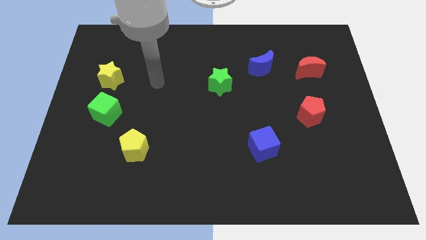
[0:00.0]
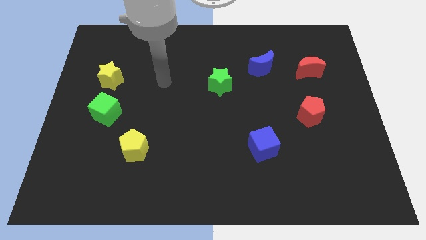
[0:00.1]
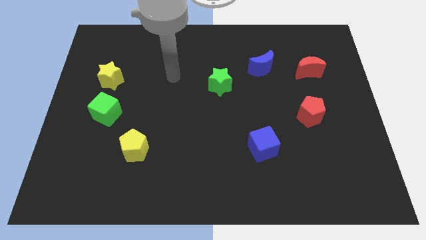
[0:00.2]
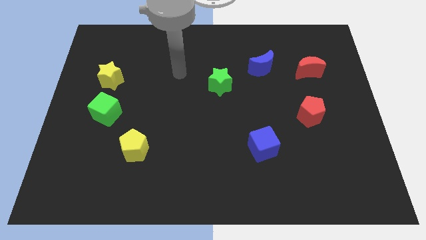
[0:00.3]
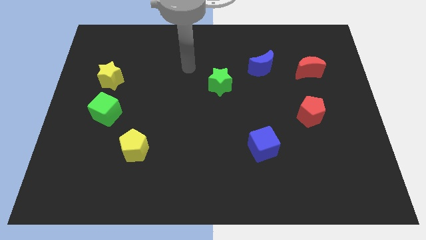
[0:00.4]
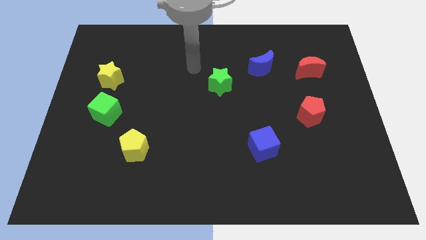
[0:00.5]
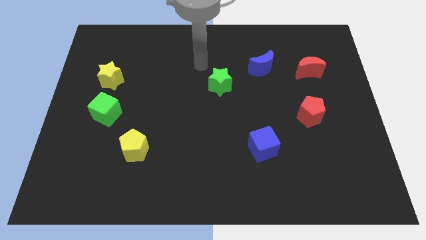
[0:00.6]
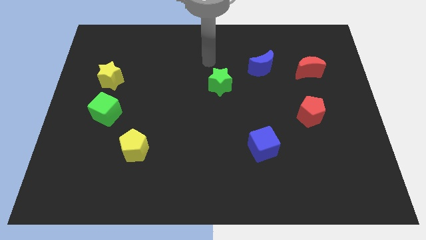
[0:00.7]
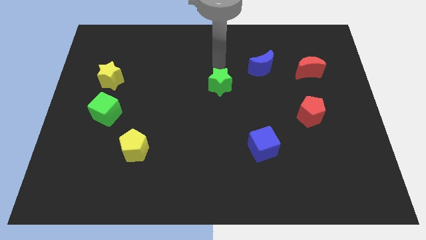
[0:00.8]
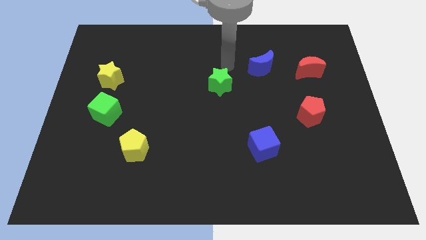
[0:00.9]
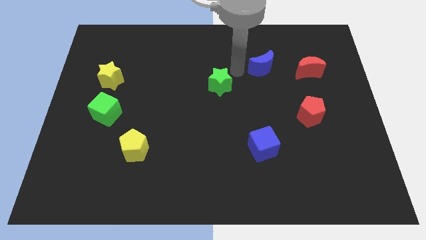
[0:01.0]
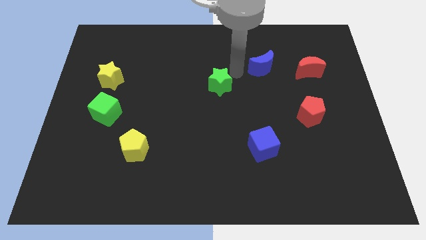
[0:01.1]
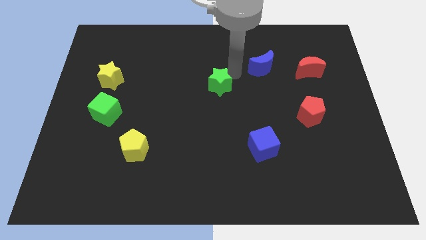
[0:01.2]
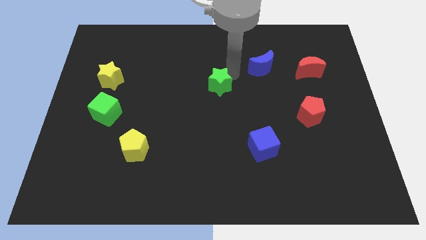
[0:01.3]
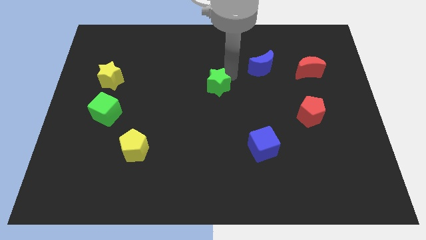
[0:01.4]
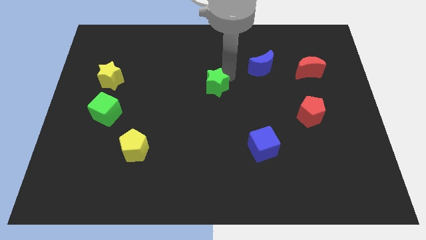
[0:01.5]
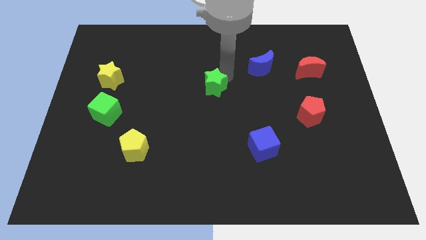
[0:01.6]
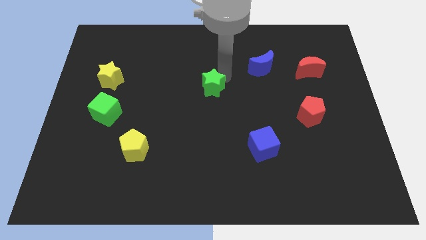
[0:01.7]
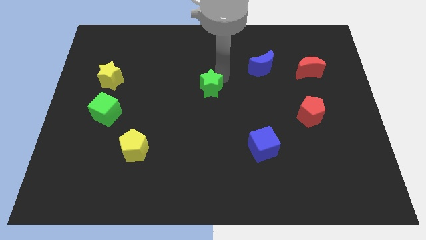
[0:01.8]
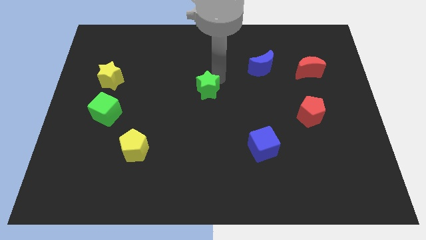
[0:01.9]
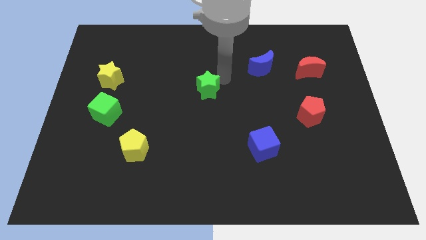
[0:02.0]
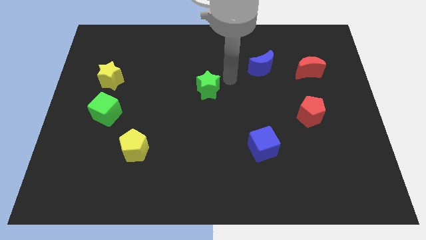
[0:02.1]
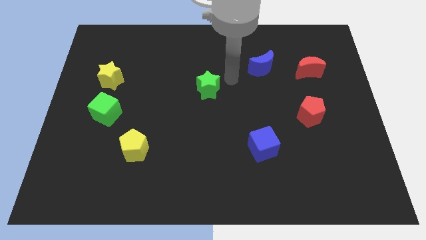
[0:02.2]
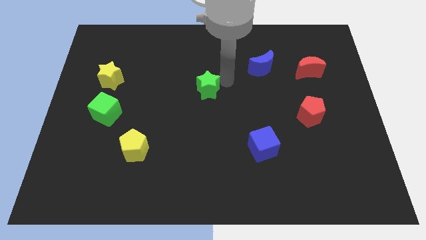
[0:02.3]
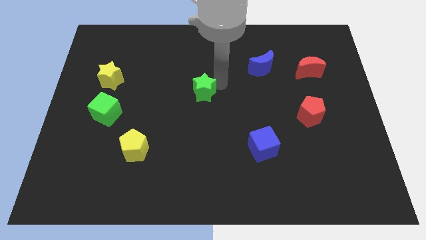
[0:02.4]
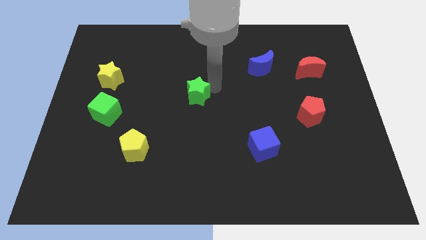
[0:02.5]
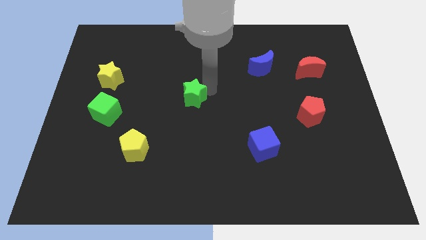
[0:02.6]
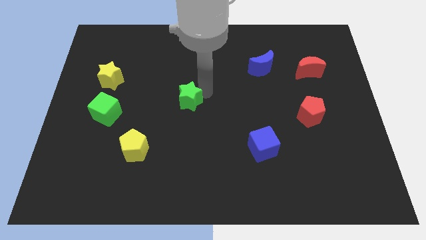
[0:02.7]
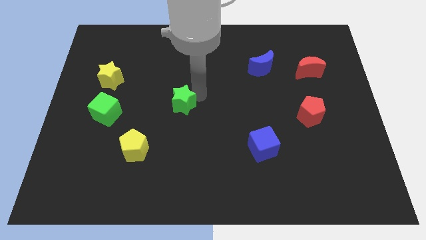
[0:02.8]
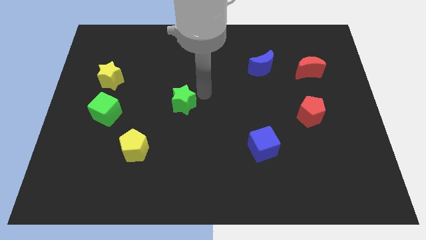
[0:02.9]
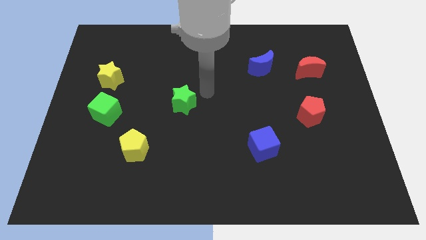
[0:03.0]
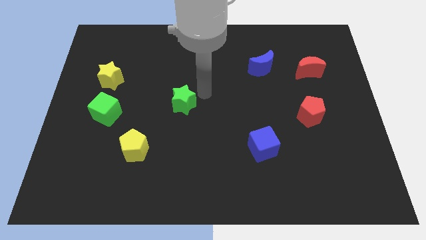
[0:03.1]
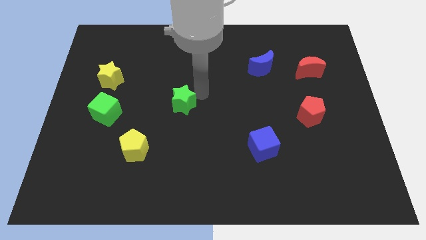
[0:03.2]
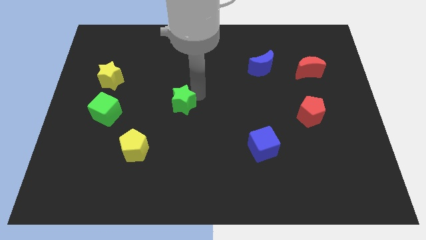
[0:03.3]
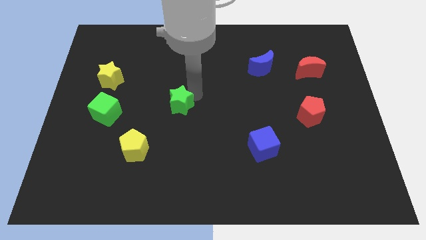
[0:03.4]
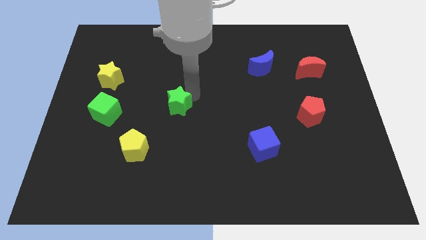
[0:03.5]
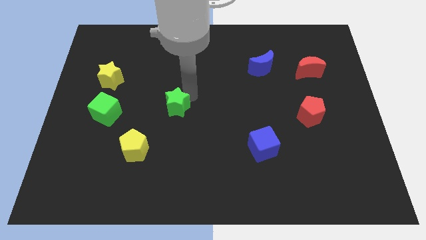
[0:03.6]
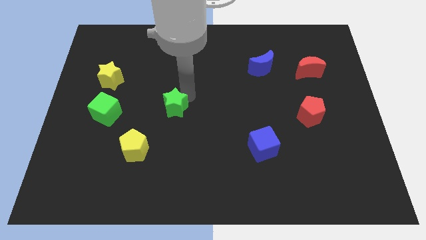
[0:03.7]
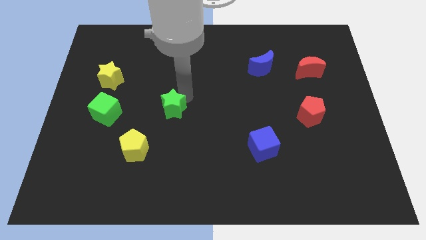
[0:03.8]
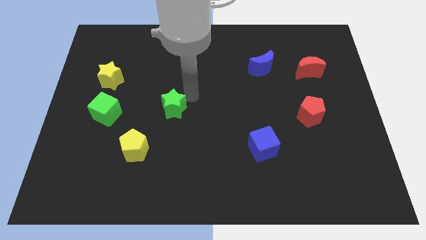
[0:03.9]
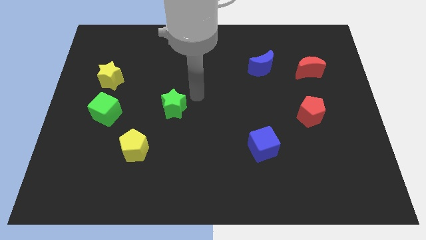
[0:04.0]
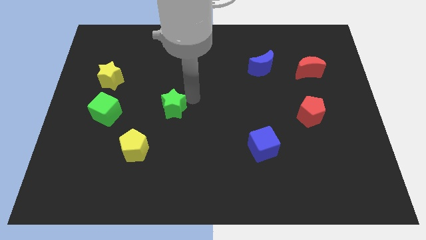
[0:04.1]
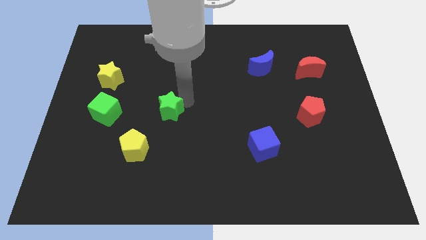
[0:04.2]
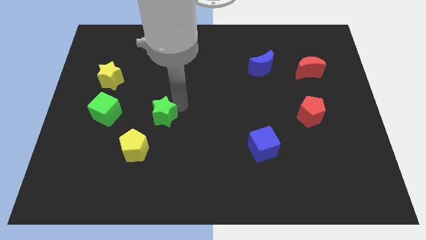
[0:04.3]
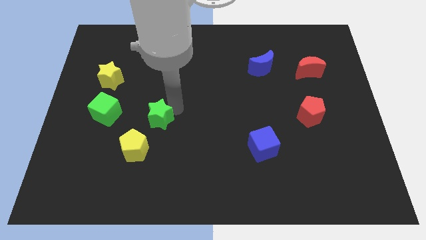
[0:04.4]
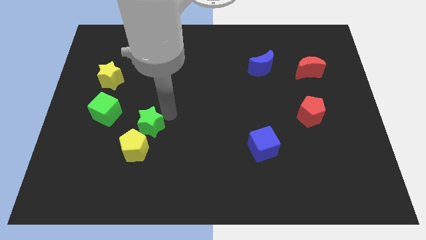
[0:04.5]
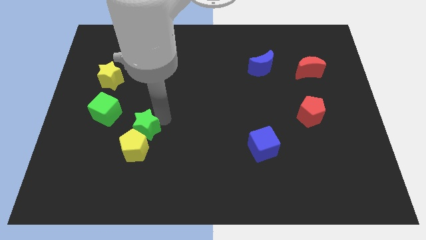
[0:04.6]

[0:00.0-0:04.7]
push the green star diagonally downwards and to the left

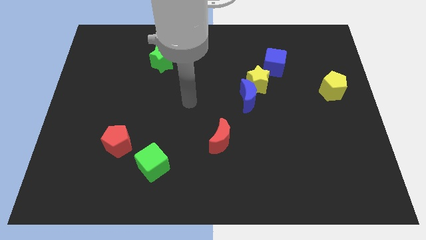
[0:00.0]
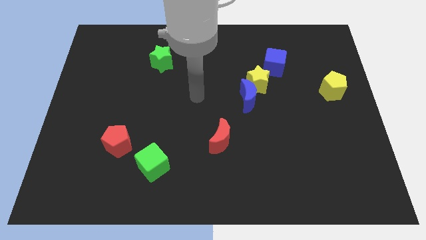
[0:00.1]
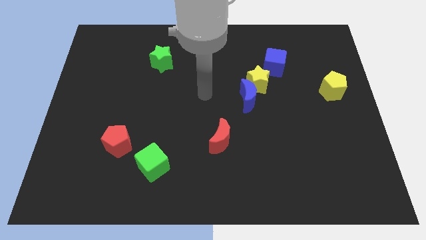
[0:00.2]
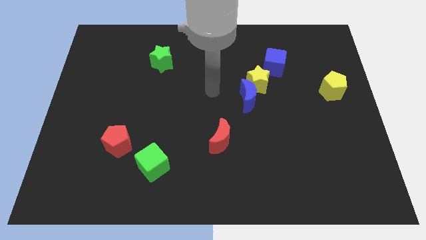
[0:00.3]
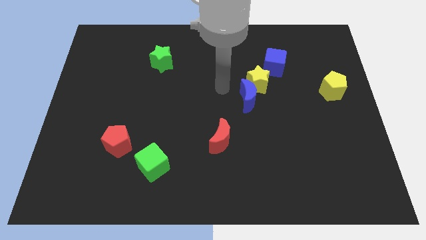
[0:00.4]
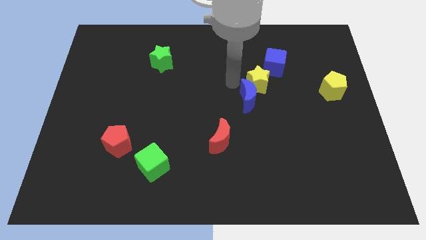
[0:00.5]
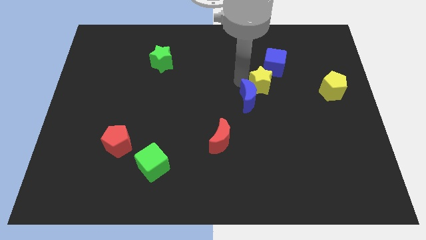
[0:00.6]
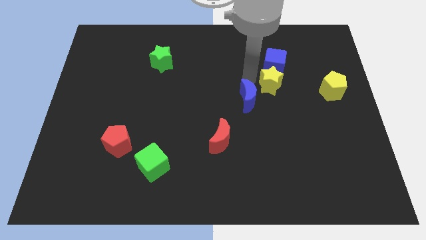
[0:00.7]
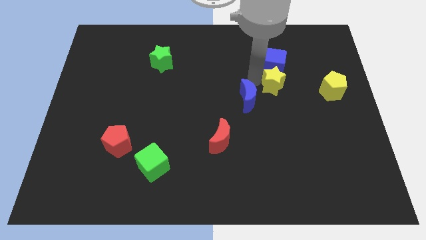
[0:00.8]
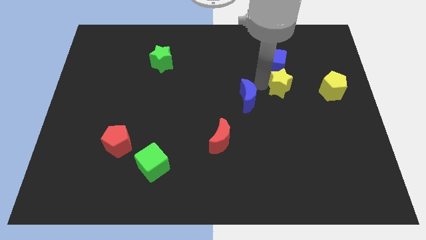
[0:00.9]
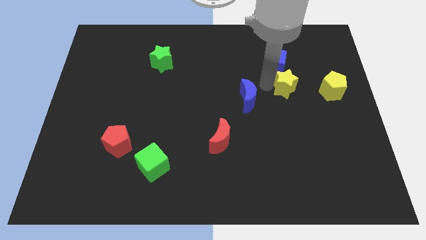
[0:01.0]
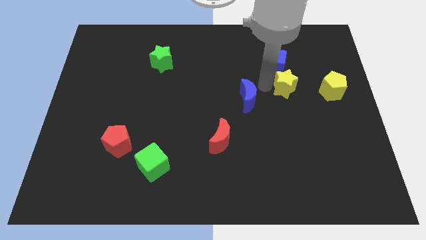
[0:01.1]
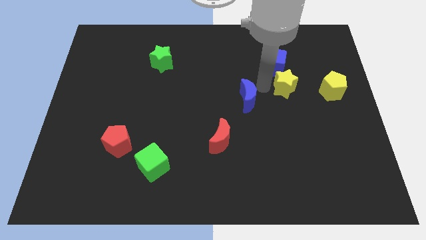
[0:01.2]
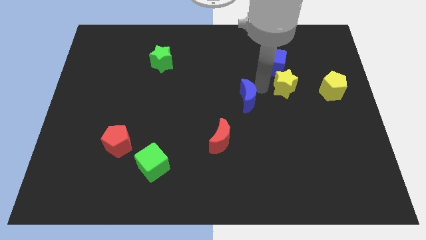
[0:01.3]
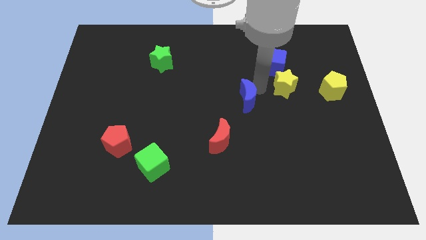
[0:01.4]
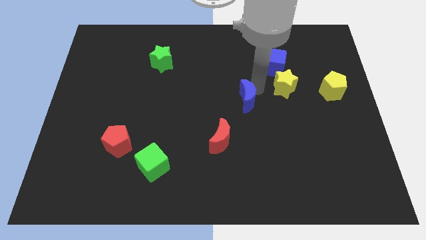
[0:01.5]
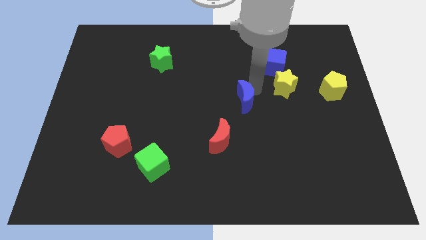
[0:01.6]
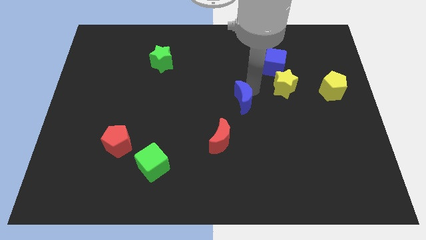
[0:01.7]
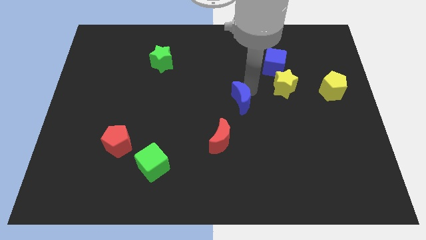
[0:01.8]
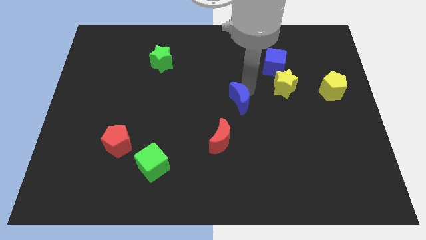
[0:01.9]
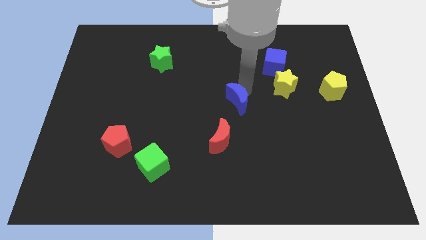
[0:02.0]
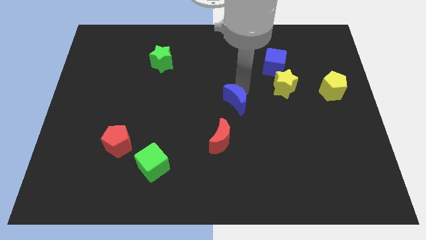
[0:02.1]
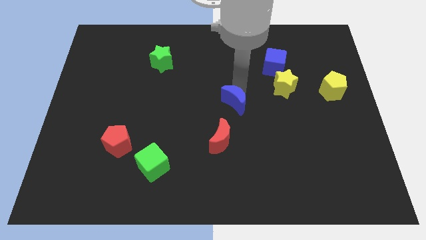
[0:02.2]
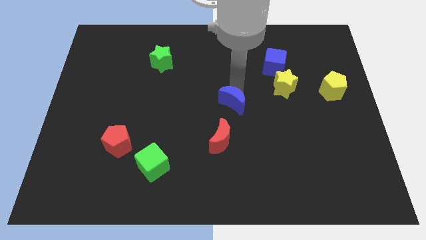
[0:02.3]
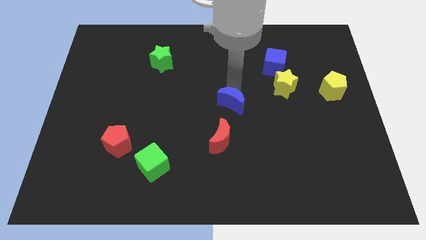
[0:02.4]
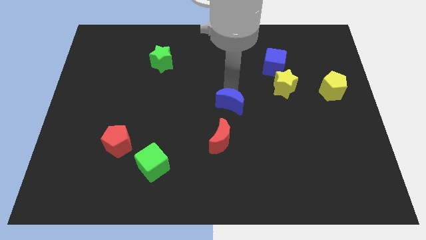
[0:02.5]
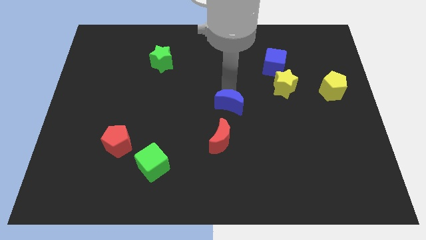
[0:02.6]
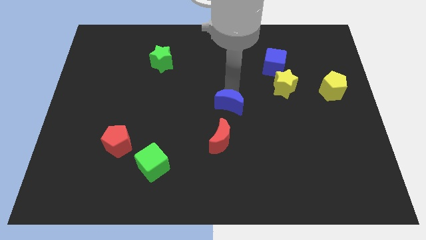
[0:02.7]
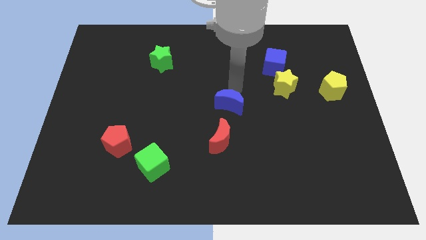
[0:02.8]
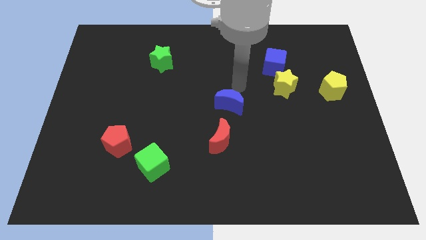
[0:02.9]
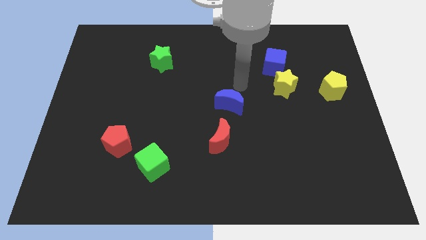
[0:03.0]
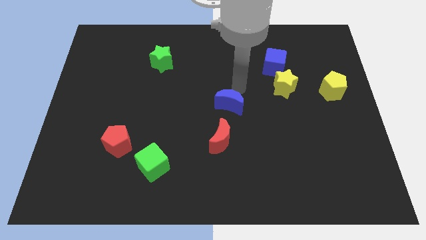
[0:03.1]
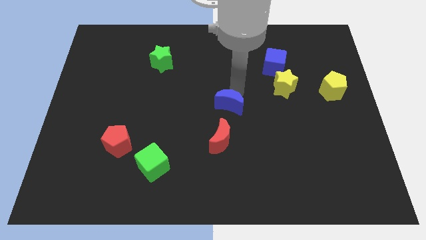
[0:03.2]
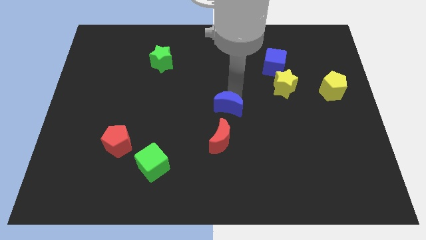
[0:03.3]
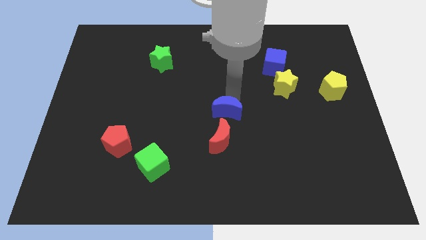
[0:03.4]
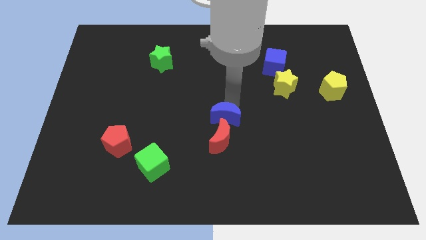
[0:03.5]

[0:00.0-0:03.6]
move the blue moon downwards and to the left a little bit

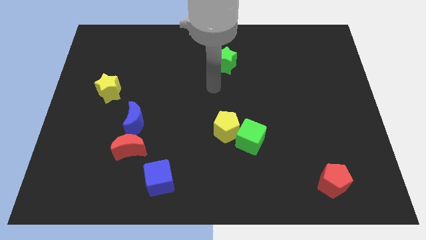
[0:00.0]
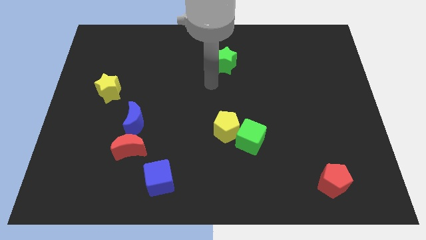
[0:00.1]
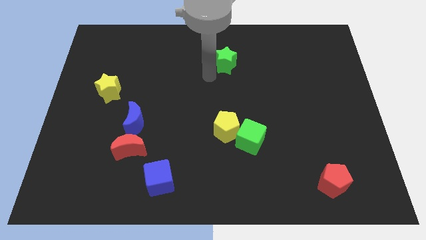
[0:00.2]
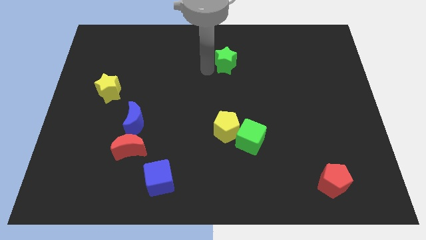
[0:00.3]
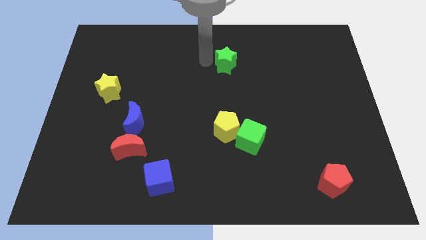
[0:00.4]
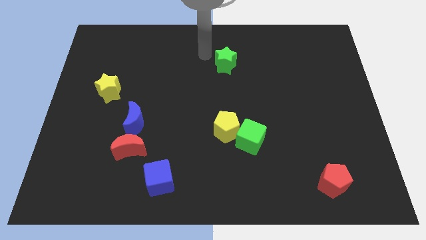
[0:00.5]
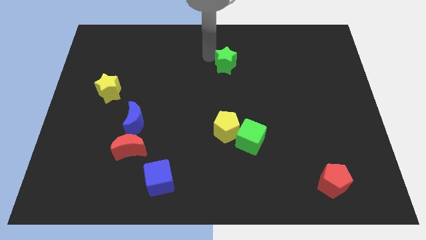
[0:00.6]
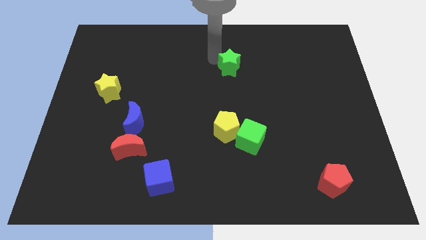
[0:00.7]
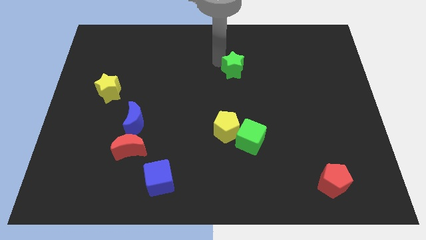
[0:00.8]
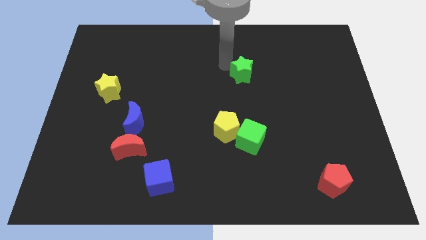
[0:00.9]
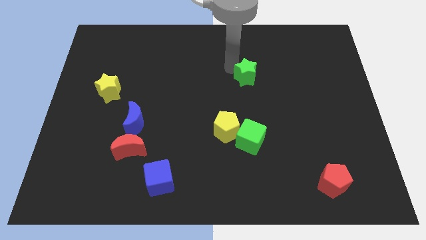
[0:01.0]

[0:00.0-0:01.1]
slightly move the green star downwards and right diagonally
